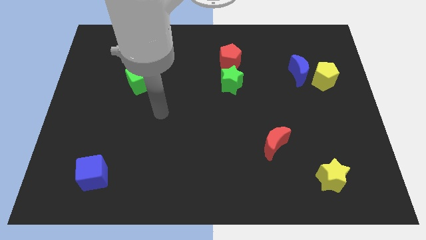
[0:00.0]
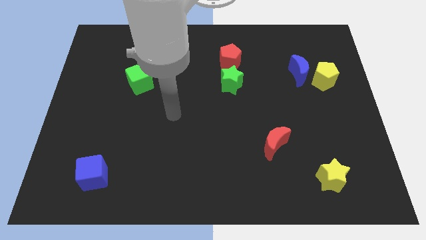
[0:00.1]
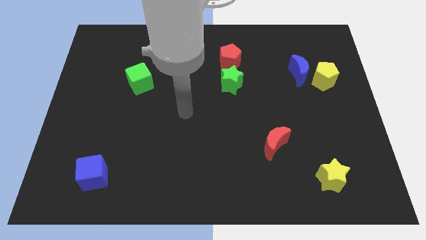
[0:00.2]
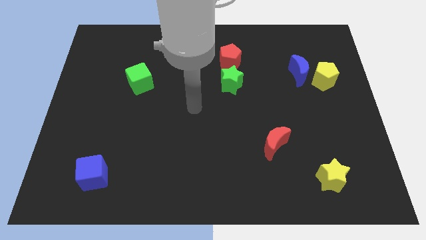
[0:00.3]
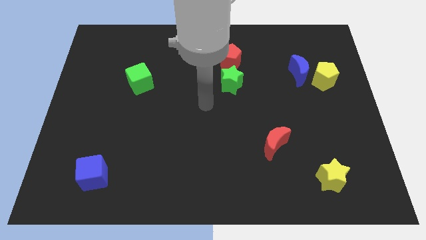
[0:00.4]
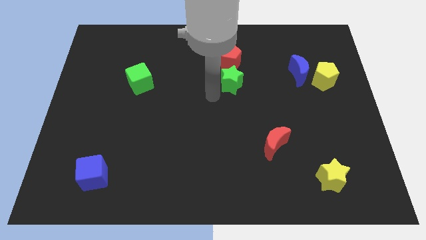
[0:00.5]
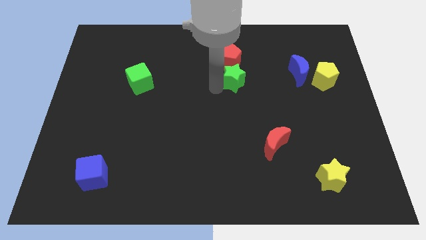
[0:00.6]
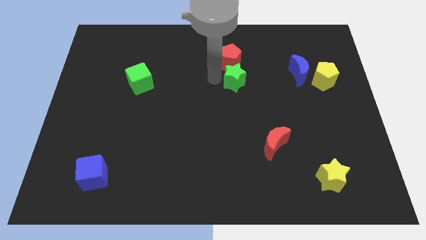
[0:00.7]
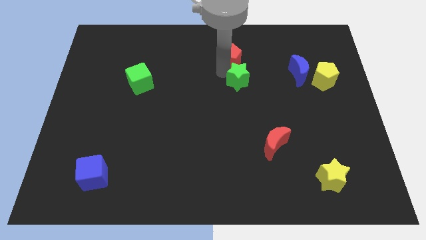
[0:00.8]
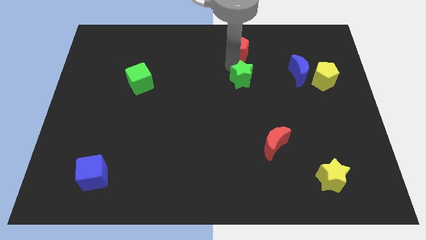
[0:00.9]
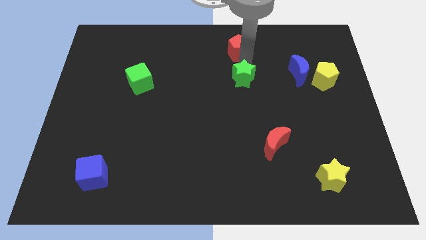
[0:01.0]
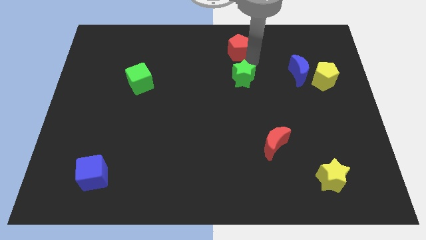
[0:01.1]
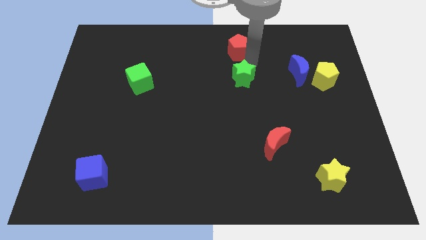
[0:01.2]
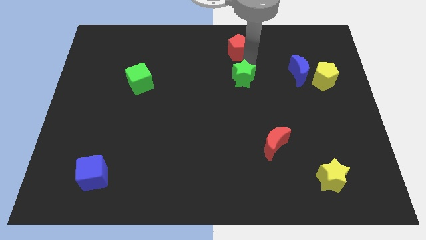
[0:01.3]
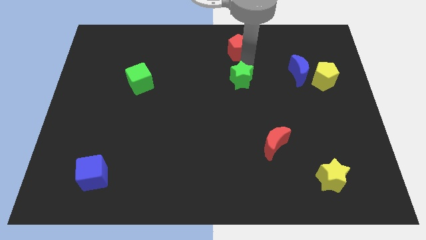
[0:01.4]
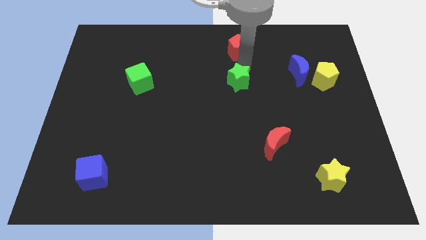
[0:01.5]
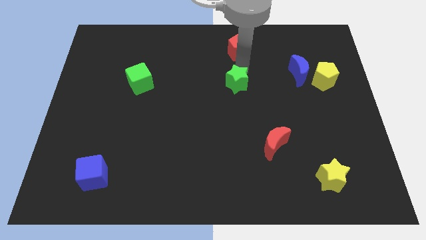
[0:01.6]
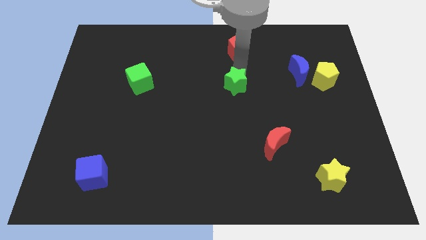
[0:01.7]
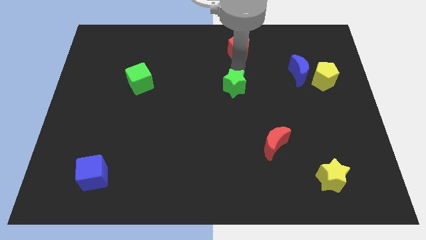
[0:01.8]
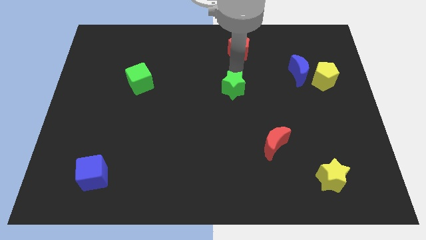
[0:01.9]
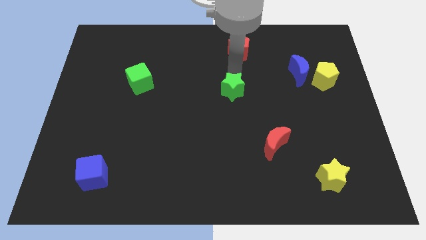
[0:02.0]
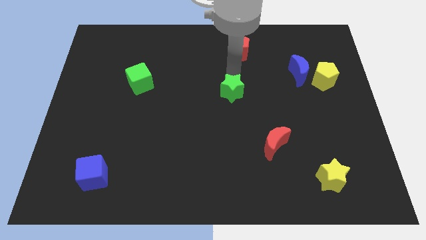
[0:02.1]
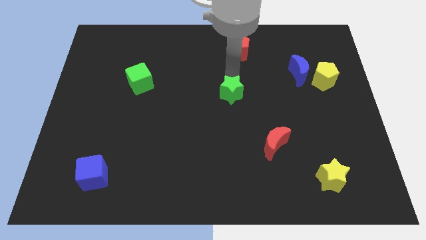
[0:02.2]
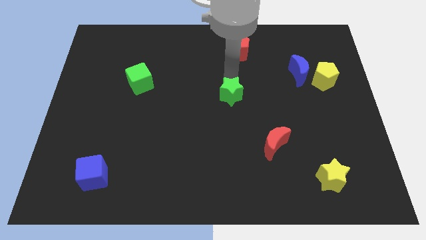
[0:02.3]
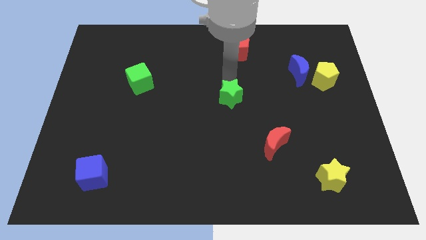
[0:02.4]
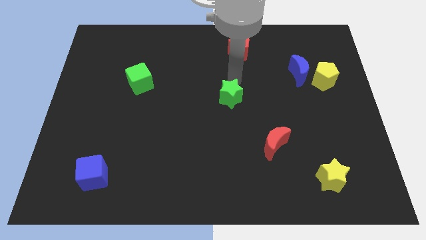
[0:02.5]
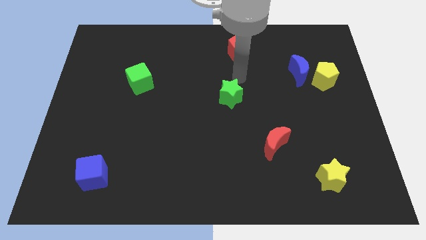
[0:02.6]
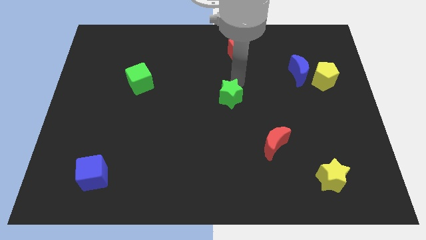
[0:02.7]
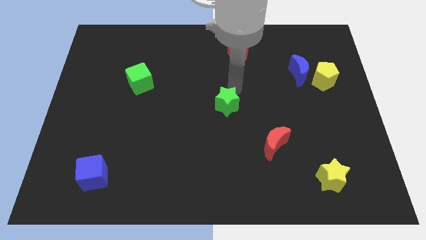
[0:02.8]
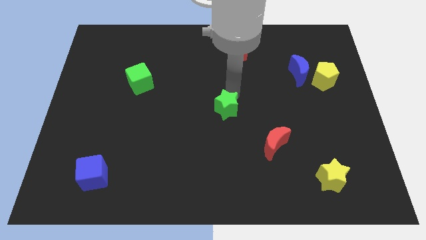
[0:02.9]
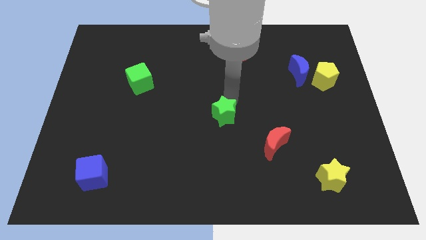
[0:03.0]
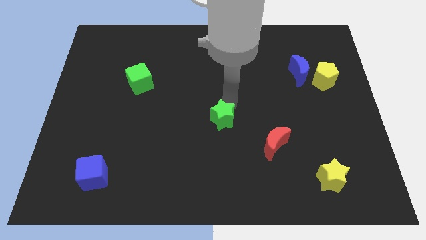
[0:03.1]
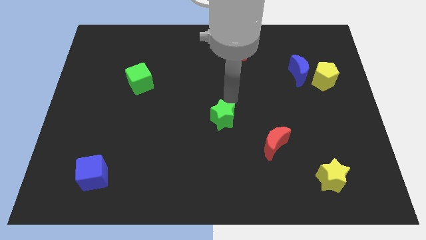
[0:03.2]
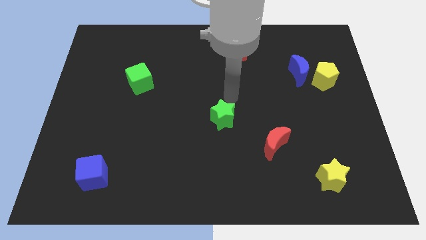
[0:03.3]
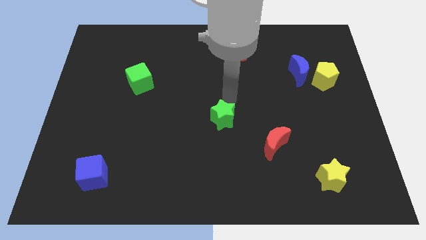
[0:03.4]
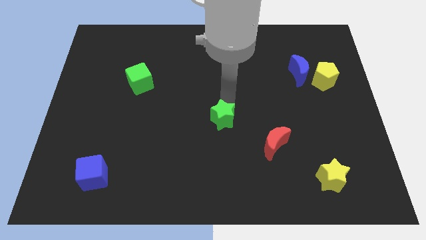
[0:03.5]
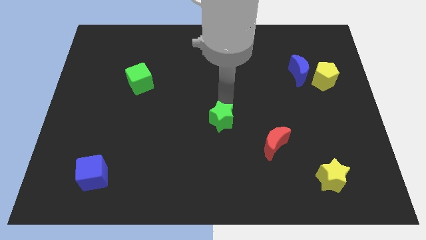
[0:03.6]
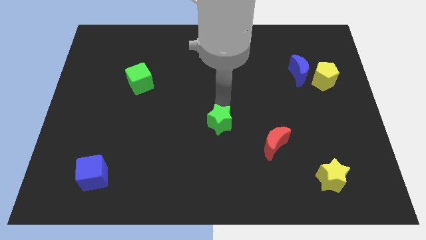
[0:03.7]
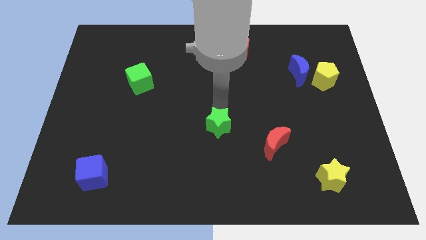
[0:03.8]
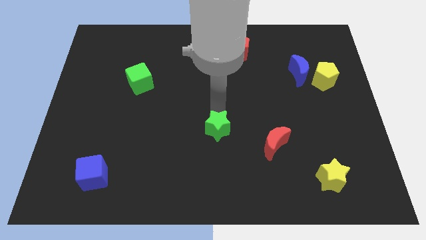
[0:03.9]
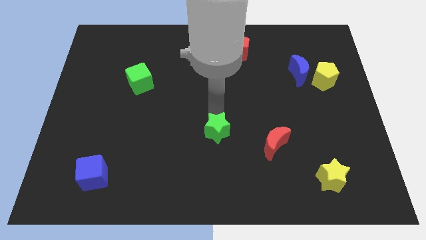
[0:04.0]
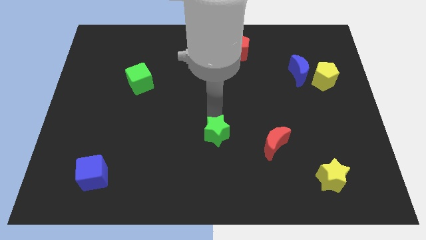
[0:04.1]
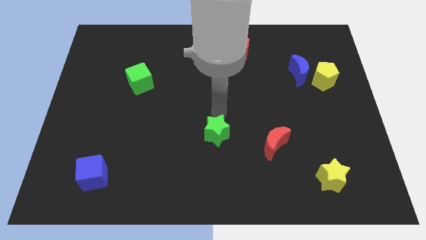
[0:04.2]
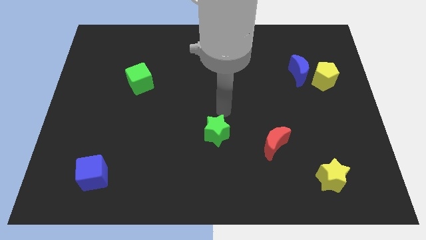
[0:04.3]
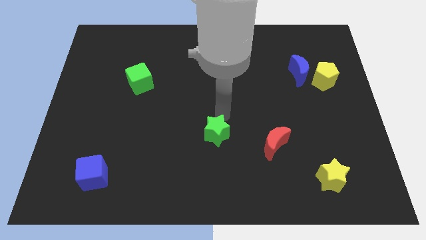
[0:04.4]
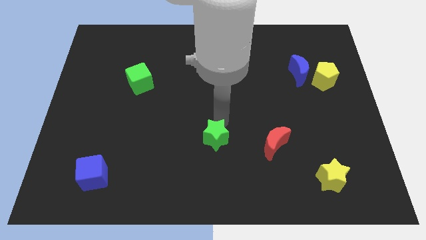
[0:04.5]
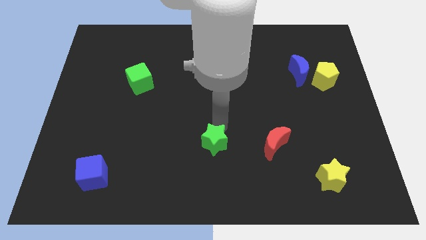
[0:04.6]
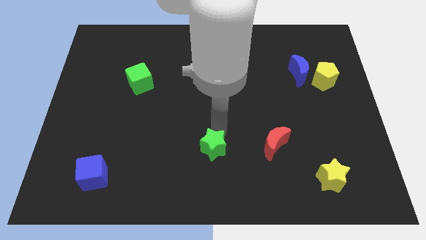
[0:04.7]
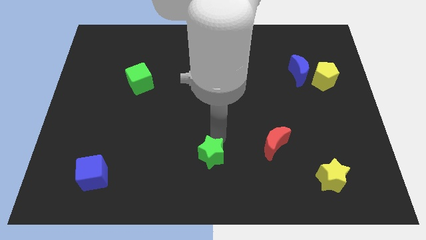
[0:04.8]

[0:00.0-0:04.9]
move the green star to the bottom

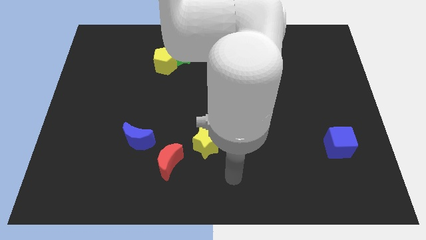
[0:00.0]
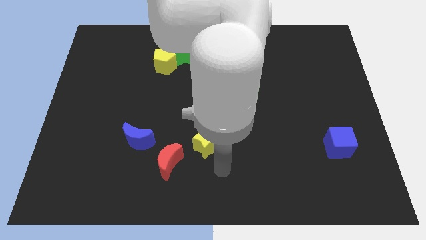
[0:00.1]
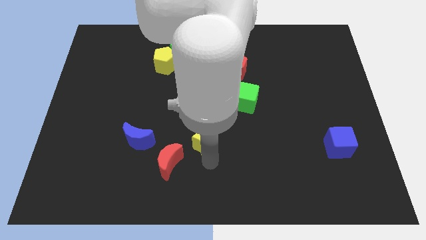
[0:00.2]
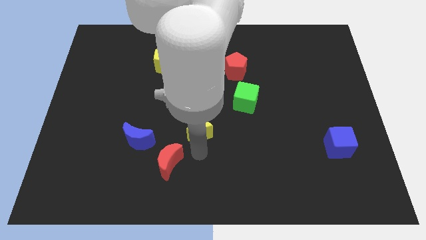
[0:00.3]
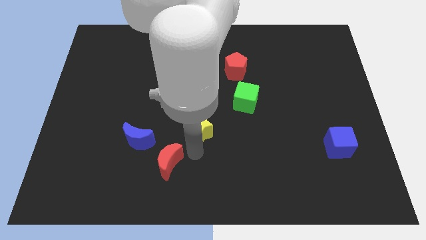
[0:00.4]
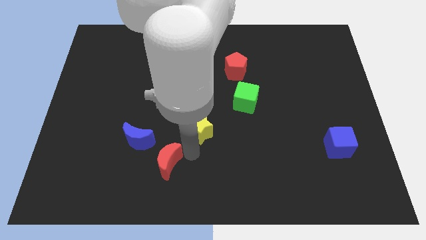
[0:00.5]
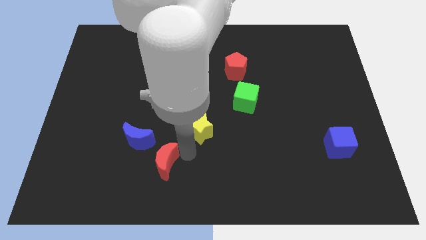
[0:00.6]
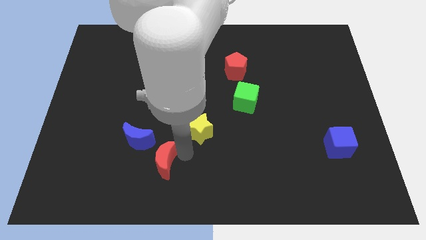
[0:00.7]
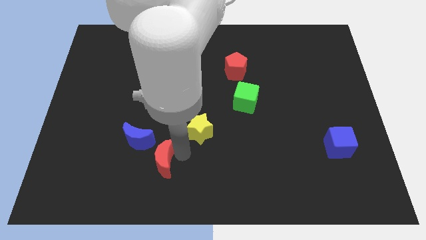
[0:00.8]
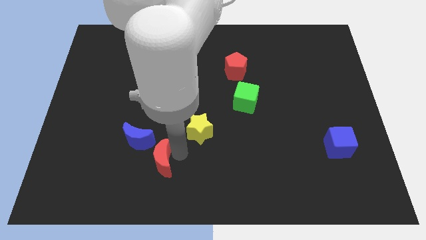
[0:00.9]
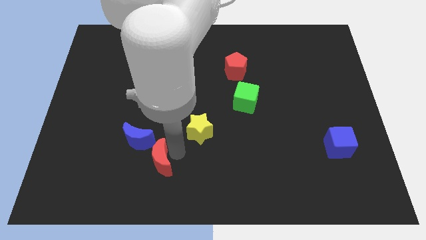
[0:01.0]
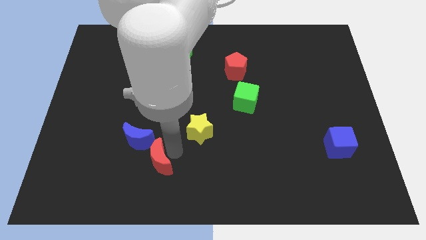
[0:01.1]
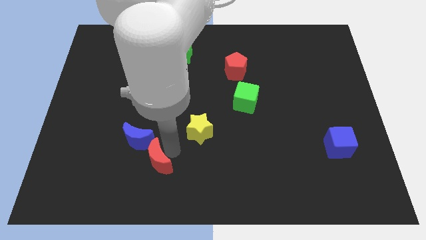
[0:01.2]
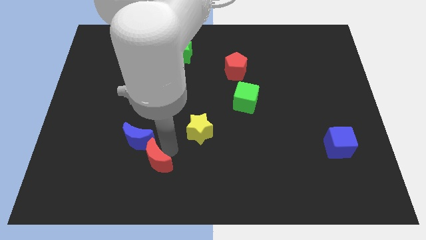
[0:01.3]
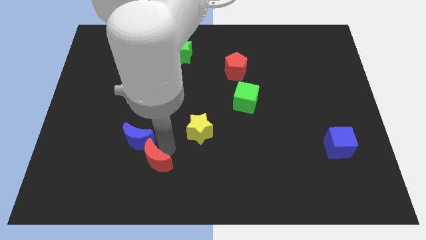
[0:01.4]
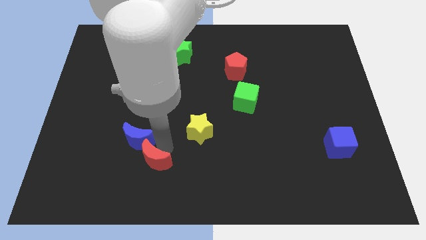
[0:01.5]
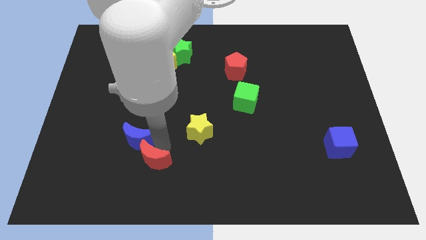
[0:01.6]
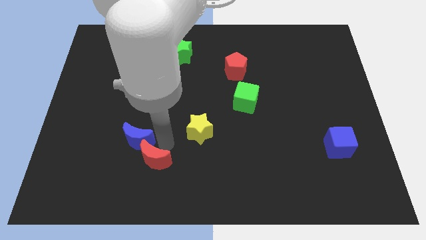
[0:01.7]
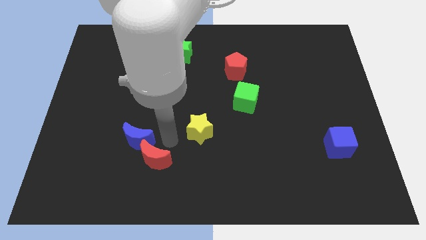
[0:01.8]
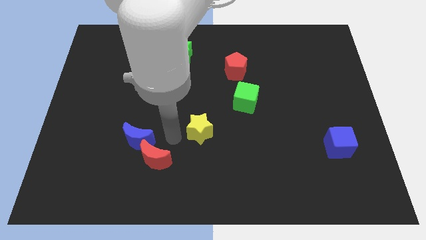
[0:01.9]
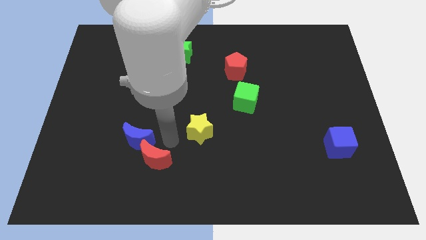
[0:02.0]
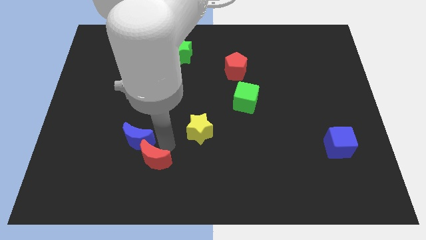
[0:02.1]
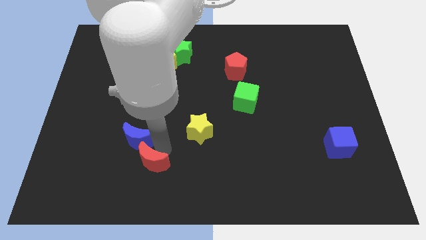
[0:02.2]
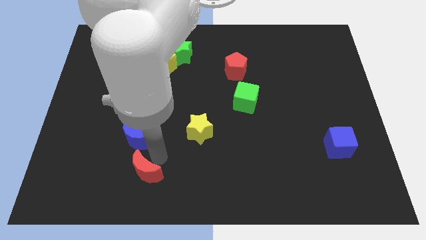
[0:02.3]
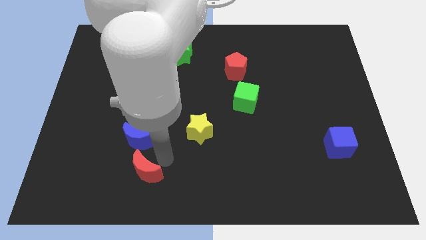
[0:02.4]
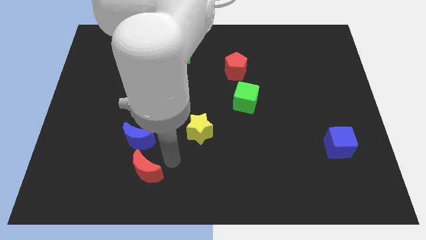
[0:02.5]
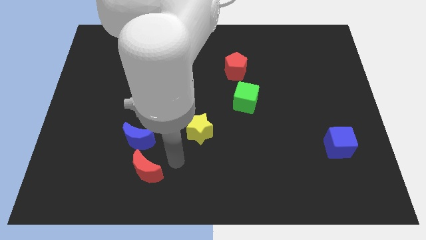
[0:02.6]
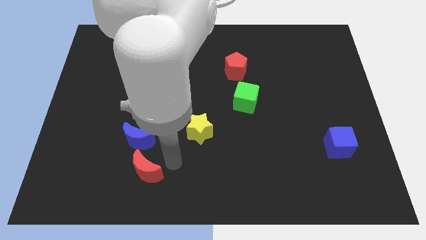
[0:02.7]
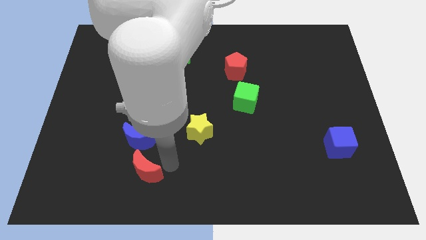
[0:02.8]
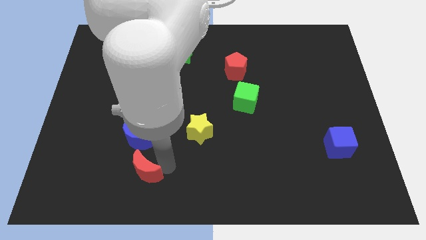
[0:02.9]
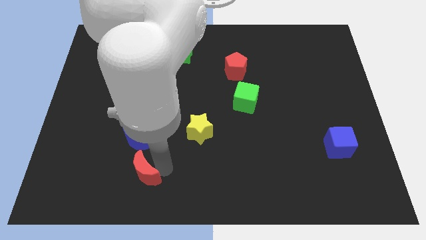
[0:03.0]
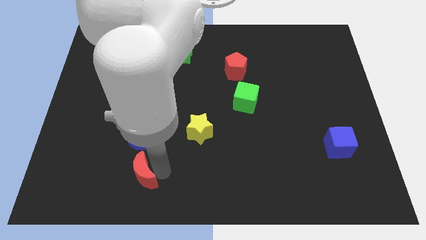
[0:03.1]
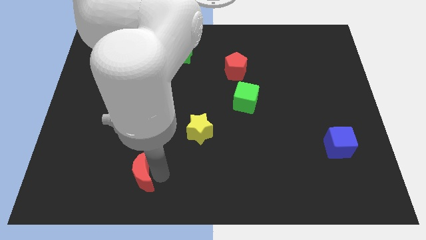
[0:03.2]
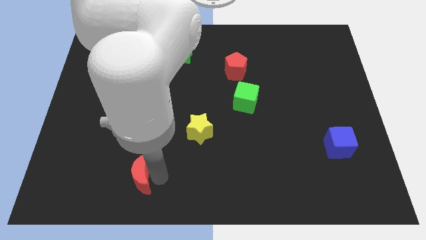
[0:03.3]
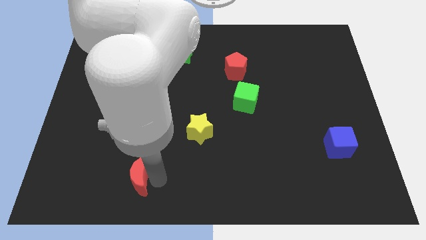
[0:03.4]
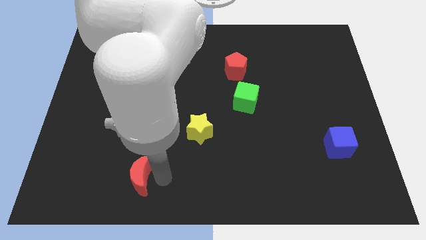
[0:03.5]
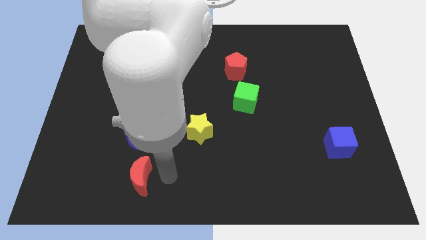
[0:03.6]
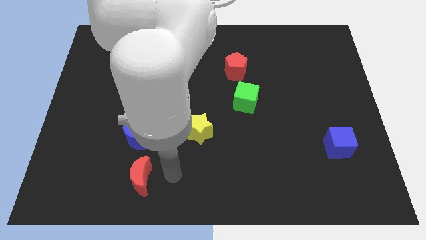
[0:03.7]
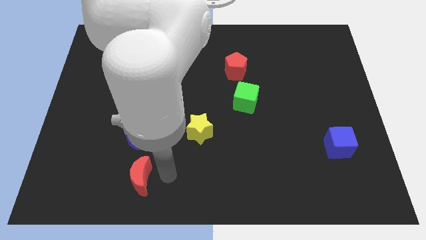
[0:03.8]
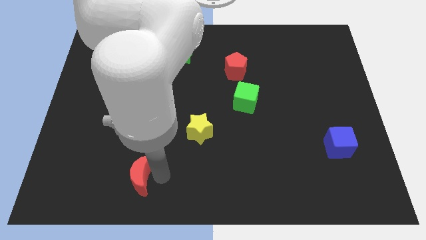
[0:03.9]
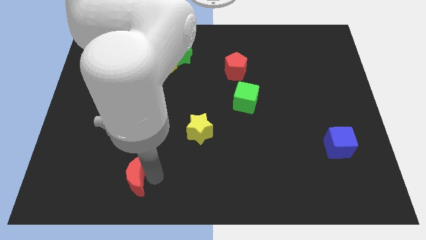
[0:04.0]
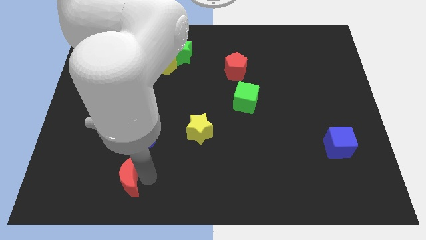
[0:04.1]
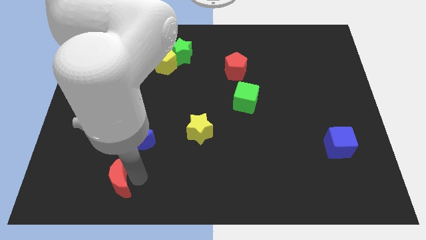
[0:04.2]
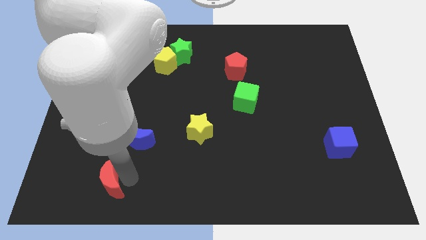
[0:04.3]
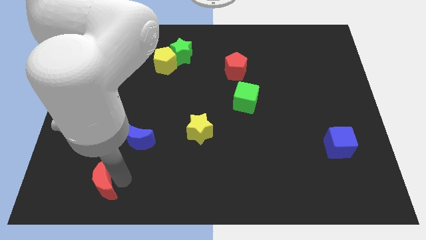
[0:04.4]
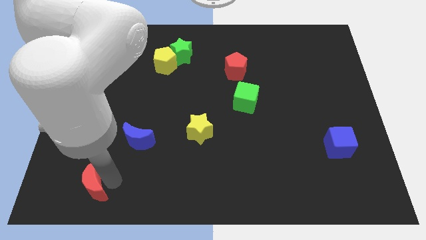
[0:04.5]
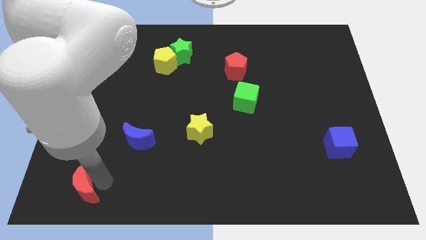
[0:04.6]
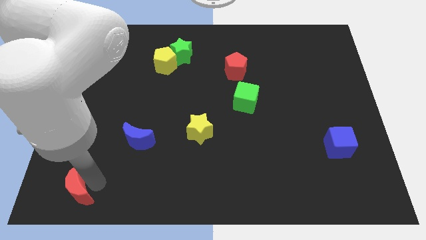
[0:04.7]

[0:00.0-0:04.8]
slide the red moon to the bottom left
